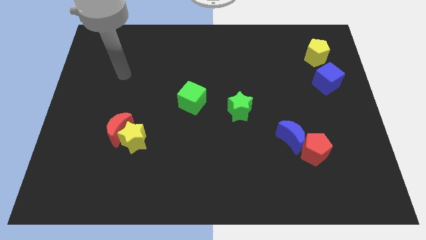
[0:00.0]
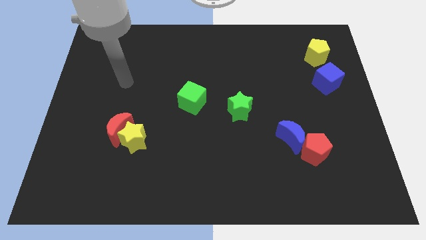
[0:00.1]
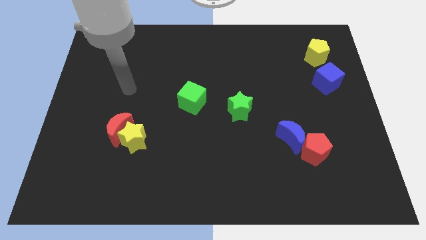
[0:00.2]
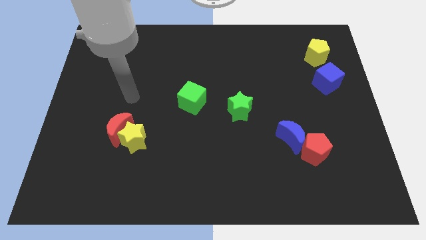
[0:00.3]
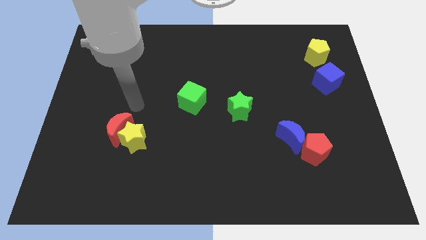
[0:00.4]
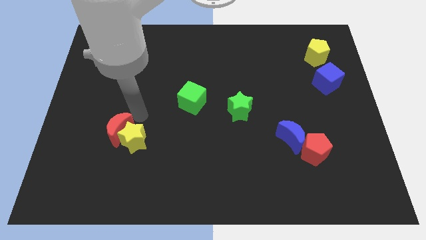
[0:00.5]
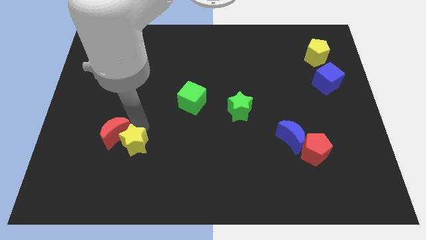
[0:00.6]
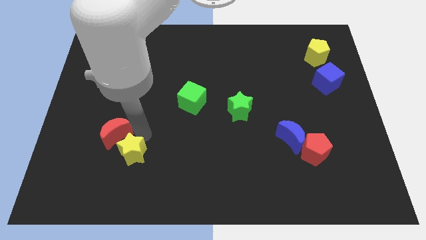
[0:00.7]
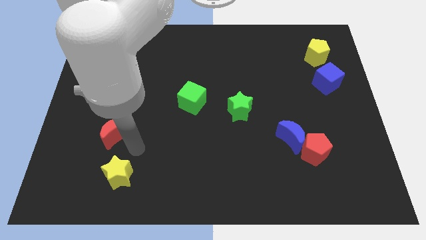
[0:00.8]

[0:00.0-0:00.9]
pull the red moon apart from the yellow star

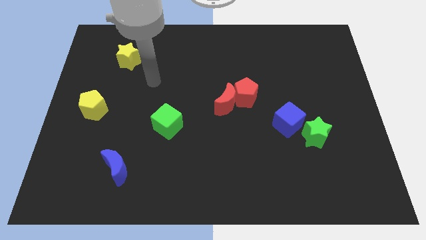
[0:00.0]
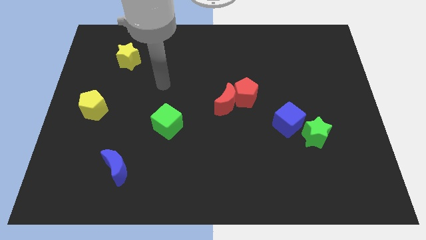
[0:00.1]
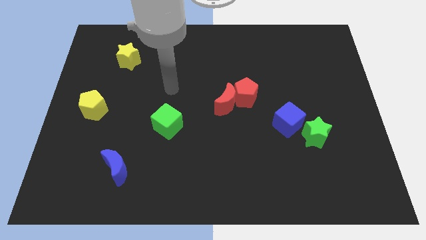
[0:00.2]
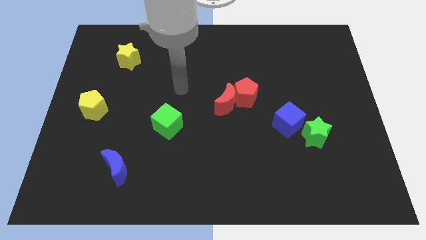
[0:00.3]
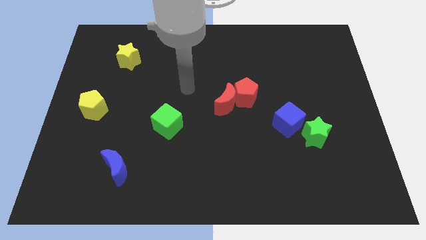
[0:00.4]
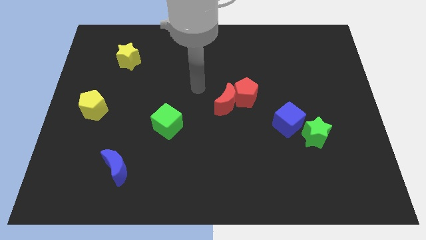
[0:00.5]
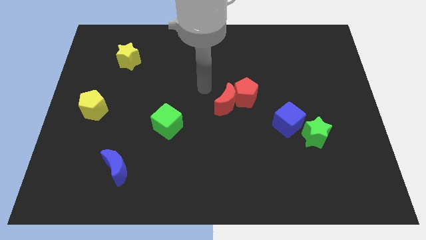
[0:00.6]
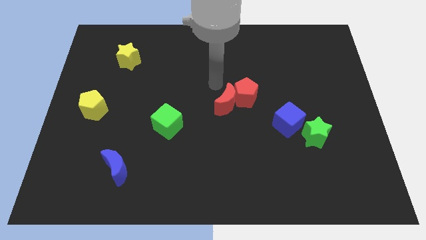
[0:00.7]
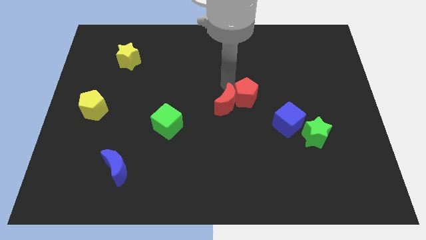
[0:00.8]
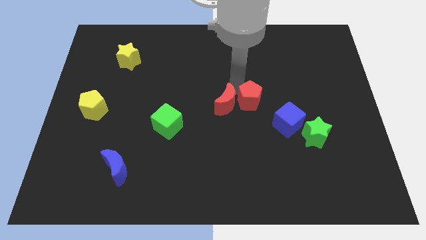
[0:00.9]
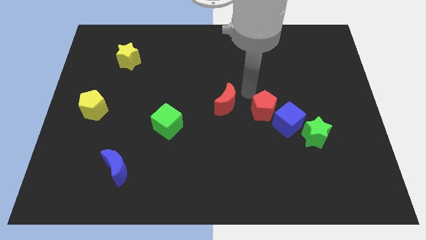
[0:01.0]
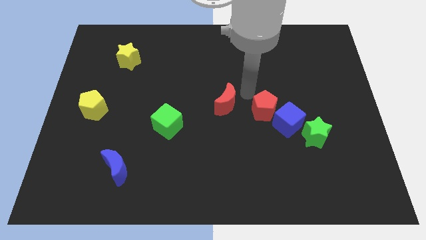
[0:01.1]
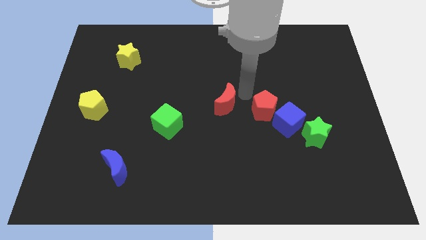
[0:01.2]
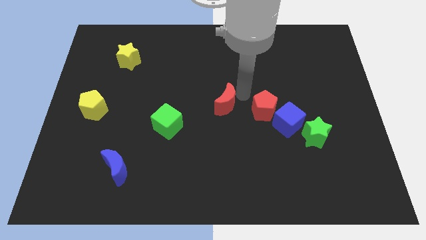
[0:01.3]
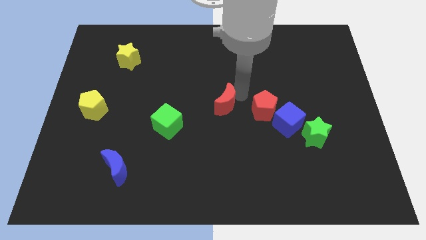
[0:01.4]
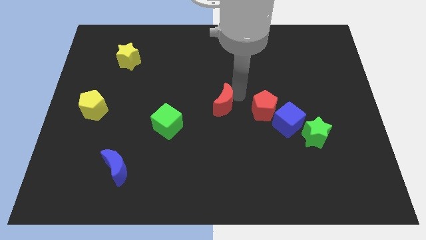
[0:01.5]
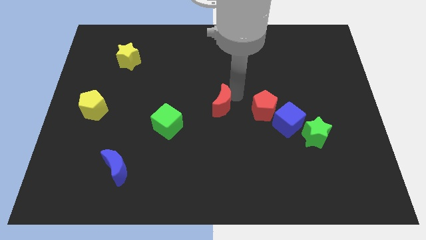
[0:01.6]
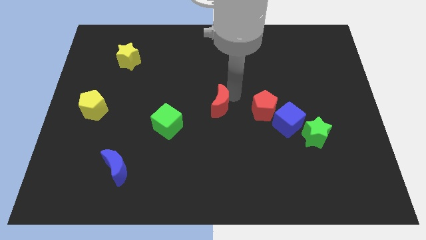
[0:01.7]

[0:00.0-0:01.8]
separate the red moon from the red pentagon

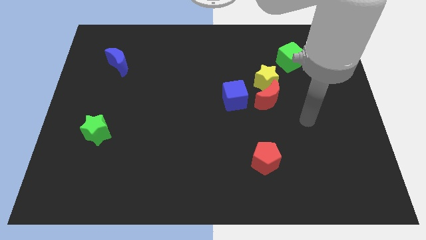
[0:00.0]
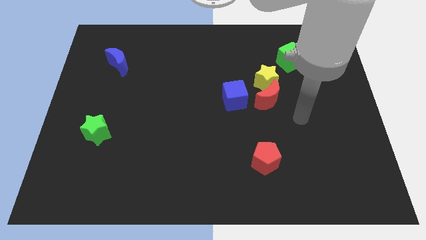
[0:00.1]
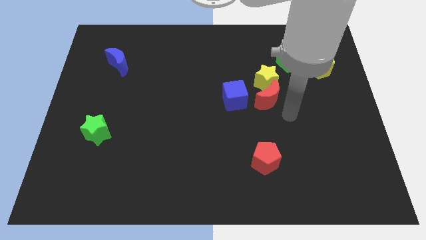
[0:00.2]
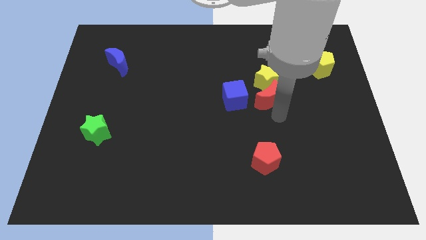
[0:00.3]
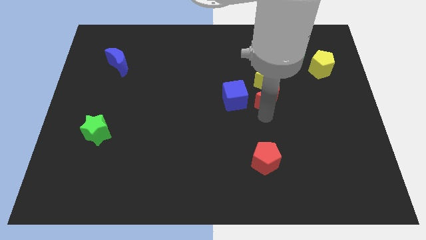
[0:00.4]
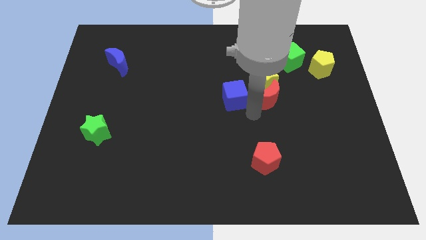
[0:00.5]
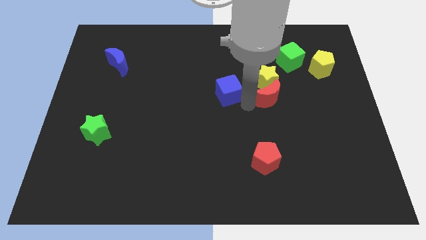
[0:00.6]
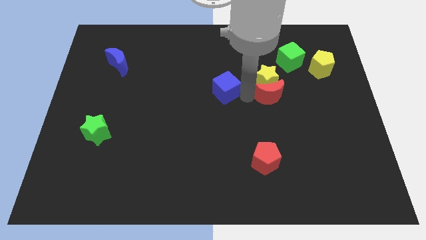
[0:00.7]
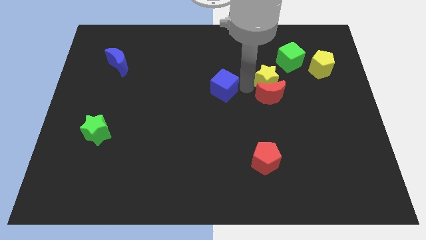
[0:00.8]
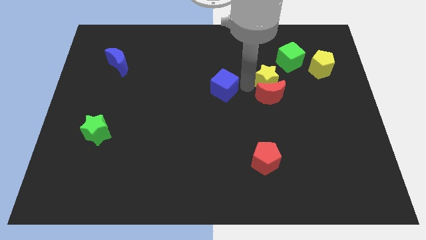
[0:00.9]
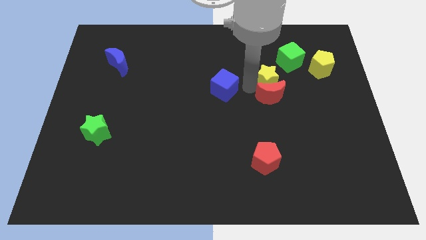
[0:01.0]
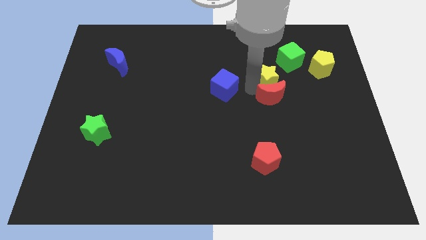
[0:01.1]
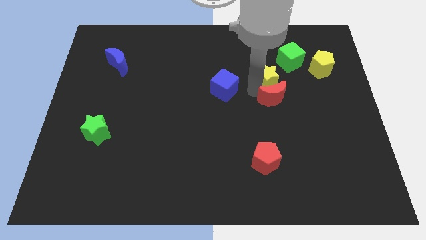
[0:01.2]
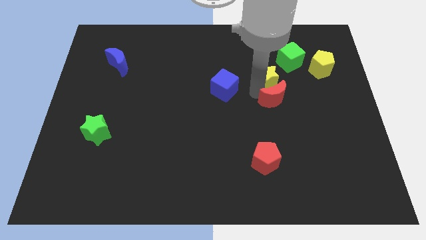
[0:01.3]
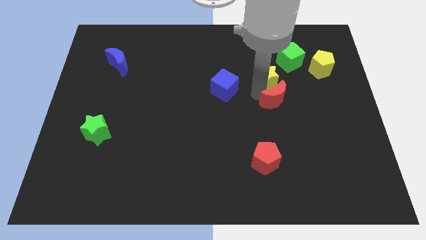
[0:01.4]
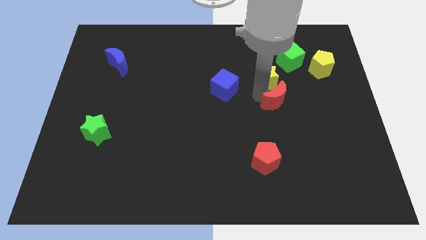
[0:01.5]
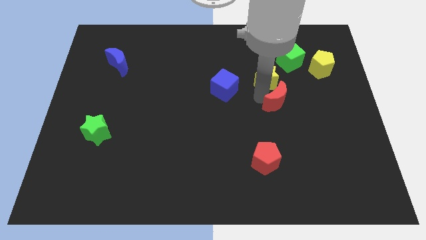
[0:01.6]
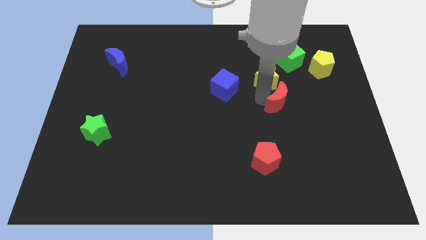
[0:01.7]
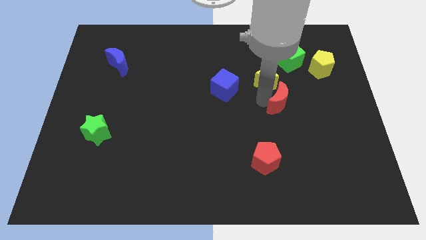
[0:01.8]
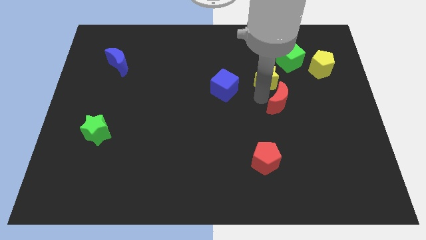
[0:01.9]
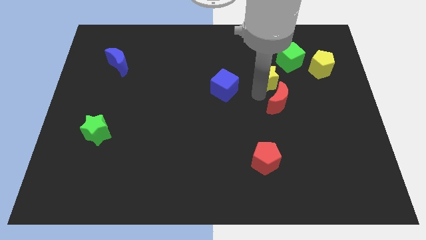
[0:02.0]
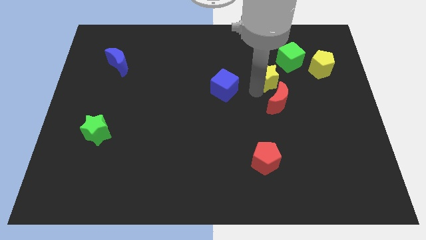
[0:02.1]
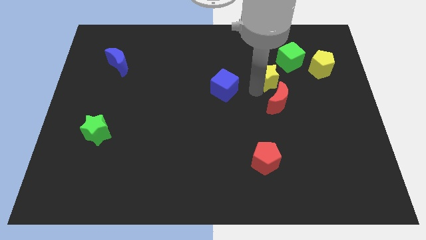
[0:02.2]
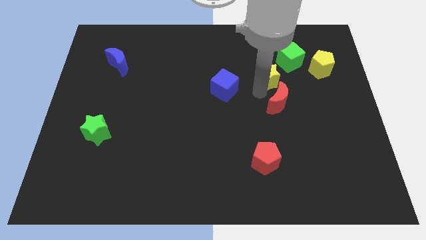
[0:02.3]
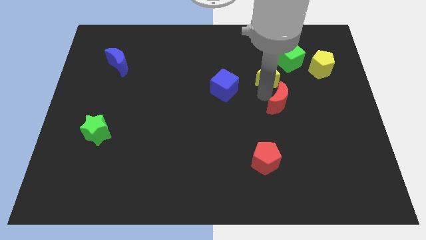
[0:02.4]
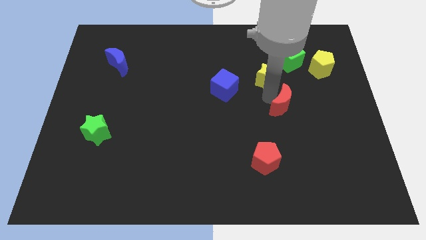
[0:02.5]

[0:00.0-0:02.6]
move the red moon away from the yellow star and blue cube

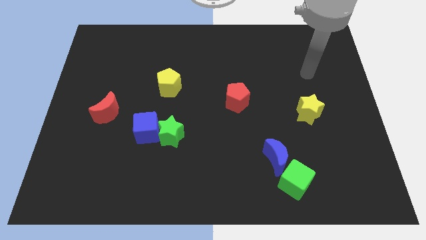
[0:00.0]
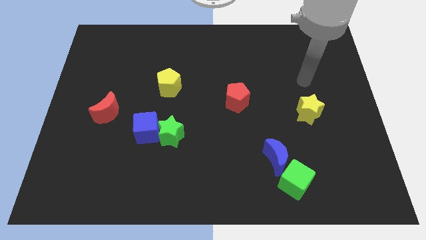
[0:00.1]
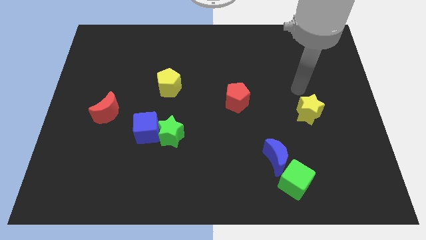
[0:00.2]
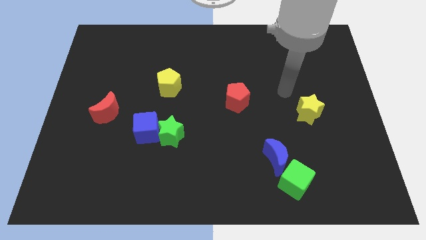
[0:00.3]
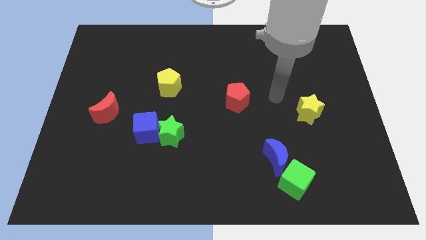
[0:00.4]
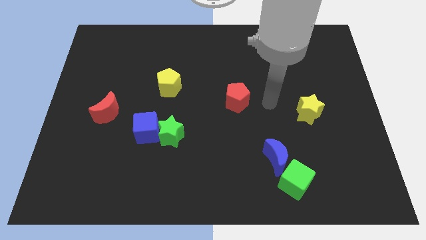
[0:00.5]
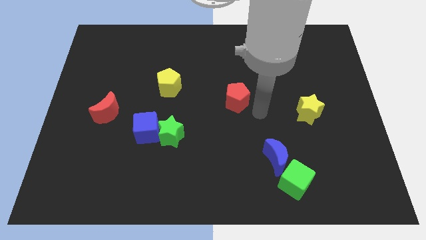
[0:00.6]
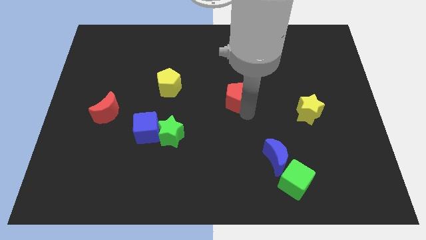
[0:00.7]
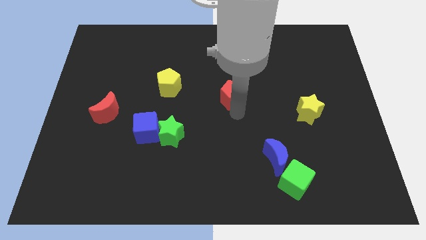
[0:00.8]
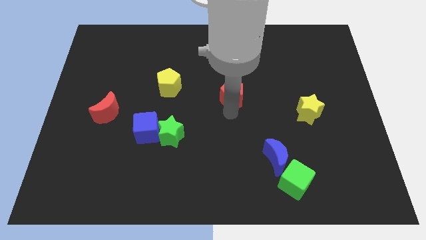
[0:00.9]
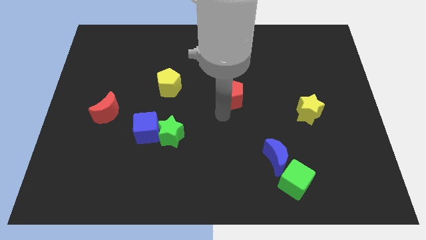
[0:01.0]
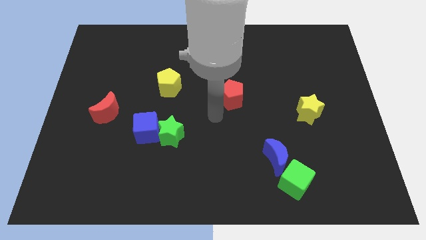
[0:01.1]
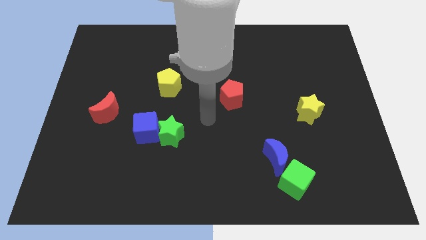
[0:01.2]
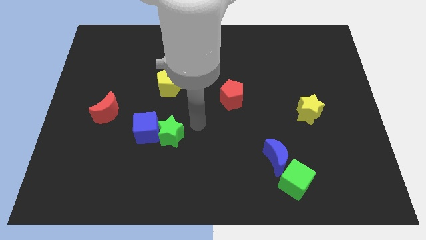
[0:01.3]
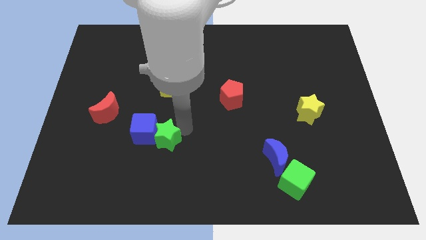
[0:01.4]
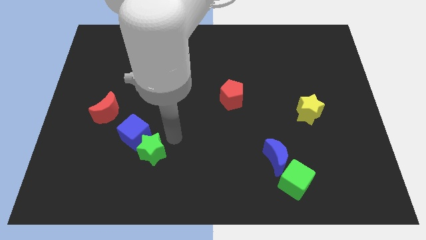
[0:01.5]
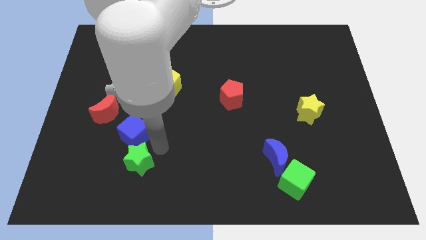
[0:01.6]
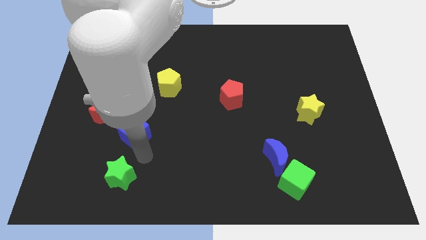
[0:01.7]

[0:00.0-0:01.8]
pull the blue cube apart from the green star

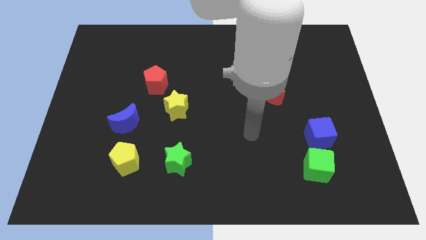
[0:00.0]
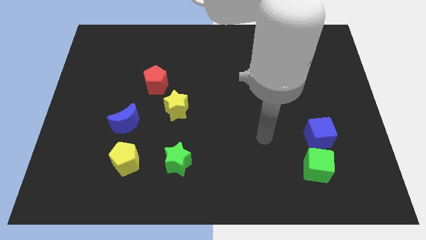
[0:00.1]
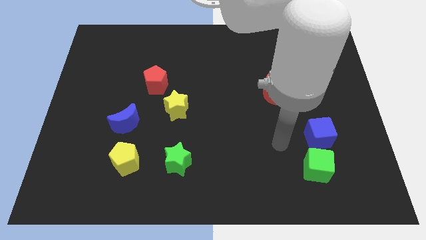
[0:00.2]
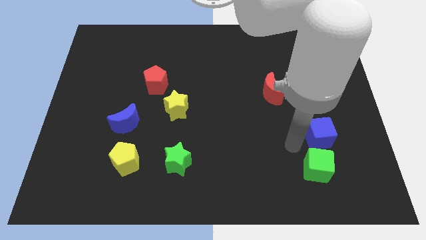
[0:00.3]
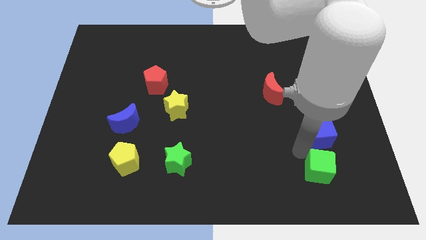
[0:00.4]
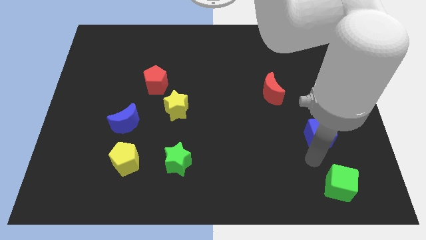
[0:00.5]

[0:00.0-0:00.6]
separate the blue cube from the green cube

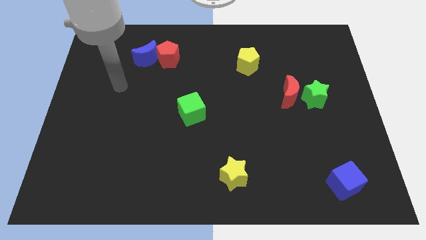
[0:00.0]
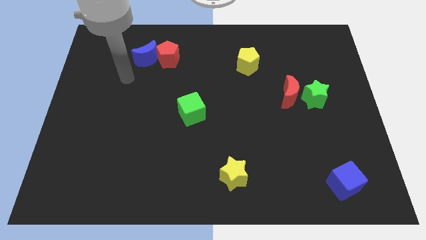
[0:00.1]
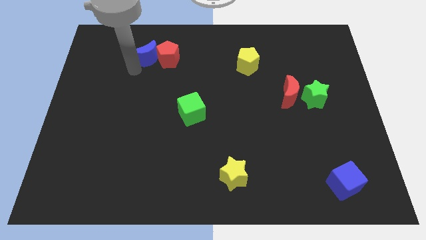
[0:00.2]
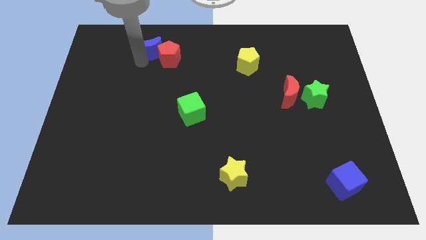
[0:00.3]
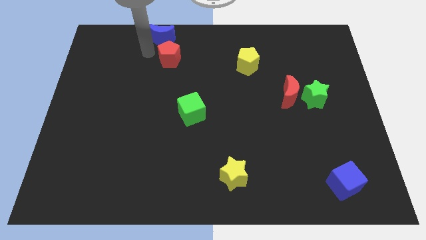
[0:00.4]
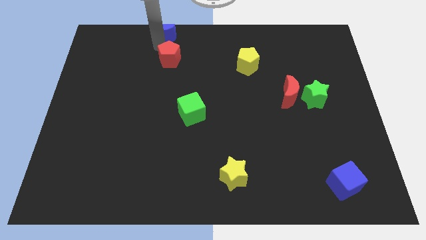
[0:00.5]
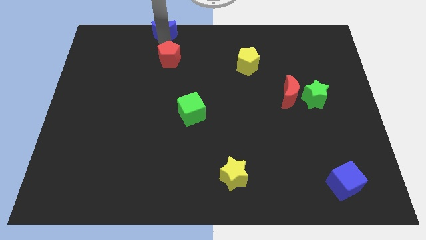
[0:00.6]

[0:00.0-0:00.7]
move the red pentagon away from the blue moon

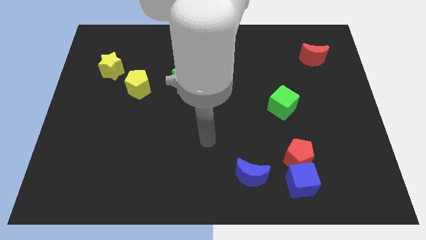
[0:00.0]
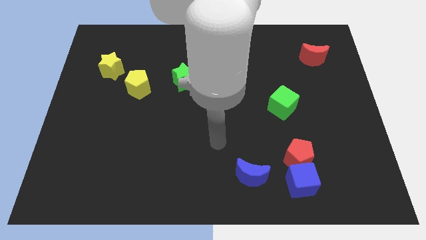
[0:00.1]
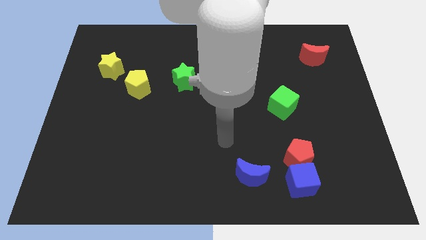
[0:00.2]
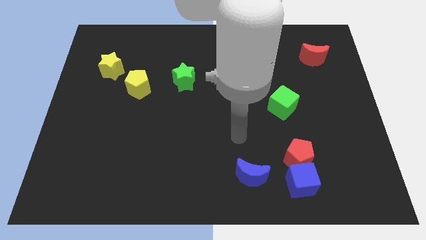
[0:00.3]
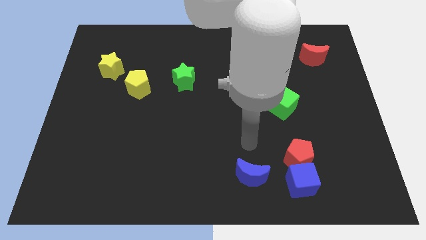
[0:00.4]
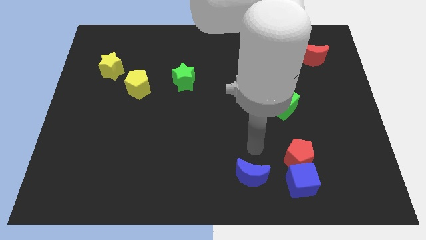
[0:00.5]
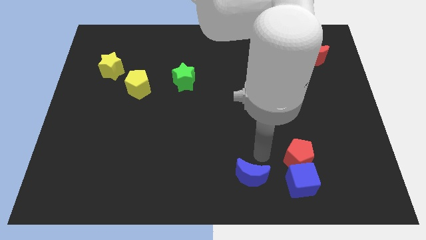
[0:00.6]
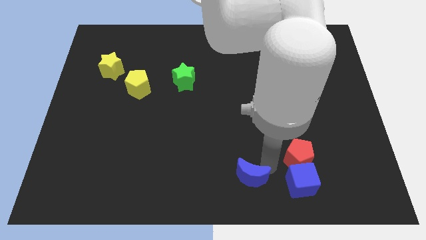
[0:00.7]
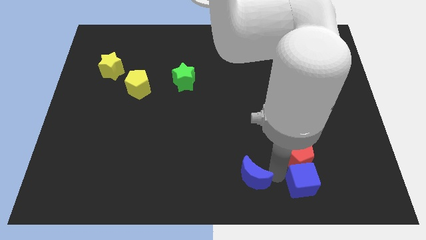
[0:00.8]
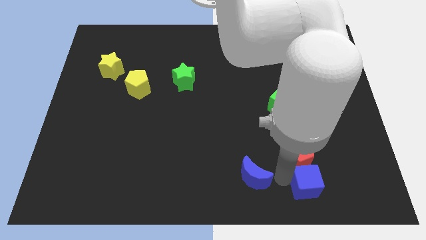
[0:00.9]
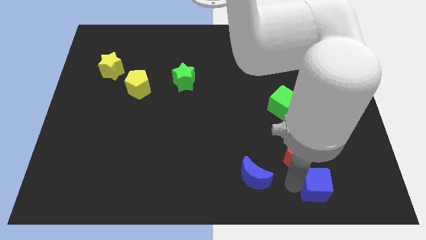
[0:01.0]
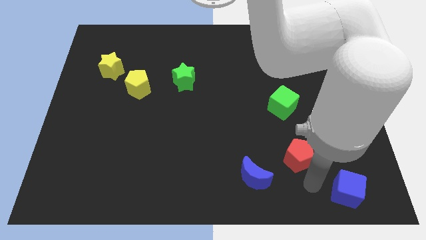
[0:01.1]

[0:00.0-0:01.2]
separate the red pentagon from the blue cube
